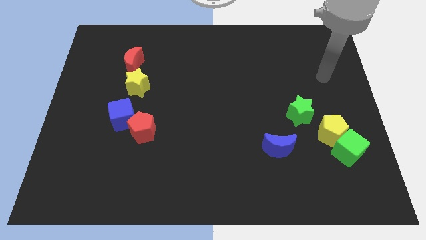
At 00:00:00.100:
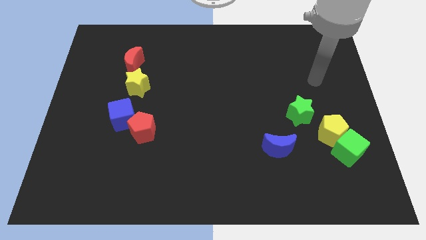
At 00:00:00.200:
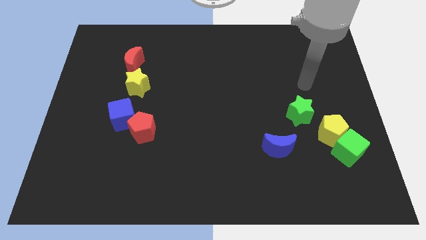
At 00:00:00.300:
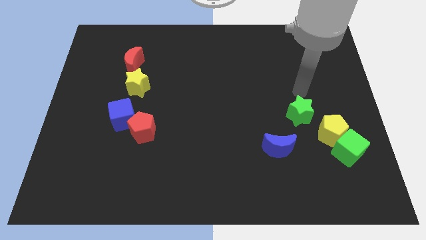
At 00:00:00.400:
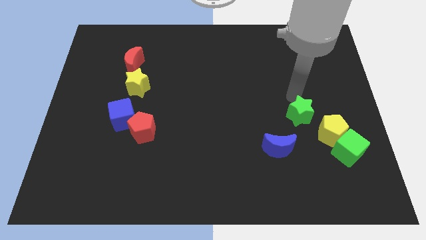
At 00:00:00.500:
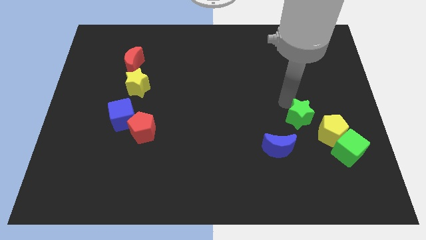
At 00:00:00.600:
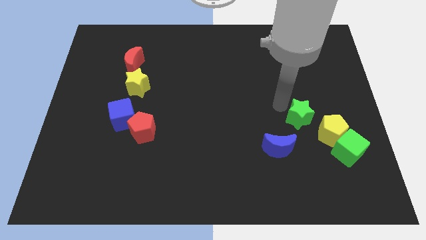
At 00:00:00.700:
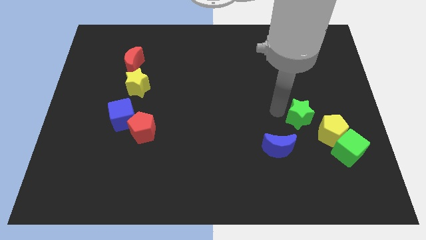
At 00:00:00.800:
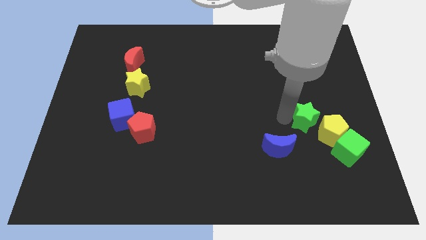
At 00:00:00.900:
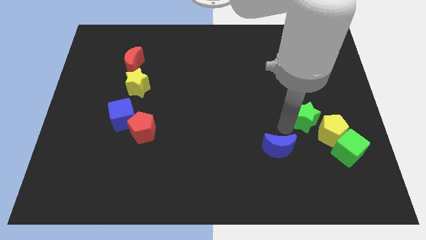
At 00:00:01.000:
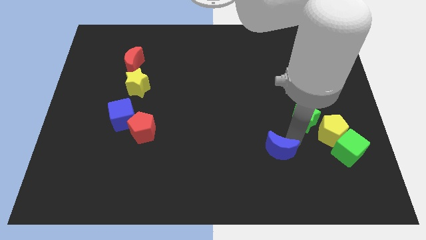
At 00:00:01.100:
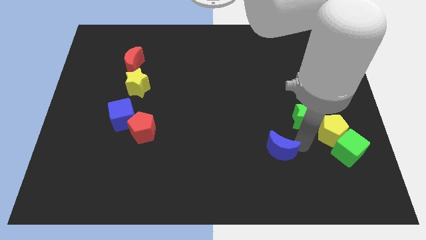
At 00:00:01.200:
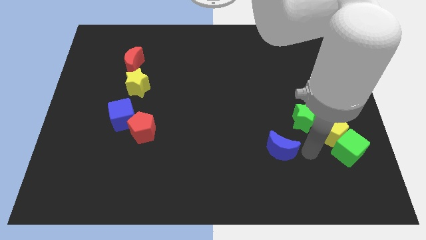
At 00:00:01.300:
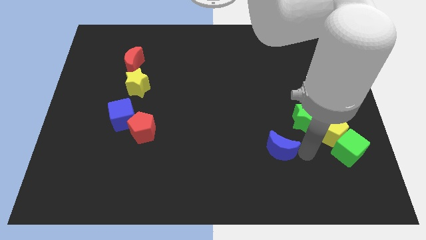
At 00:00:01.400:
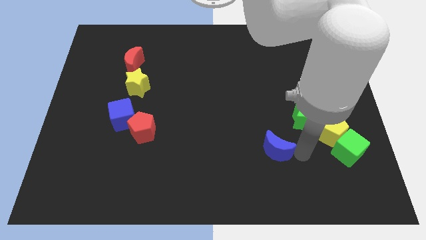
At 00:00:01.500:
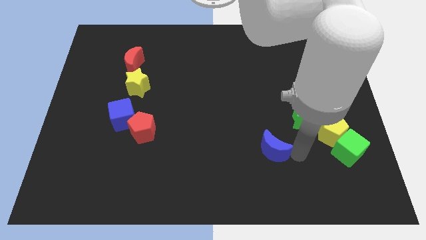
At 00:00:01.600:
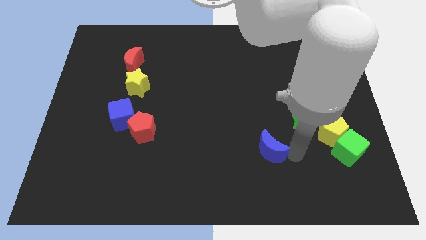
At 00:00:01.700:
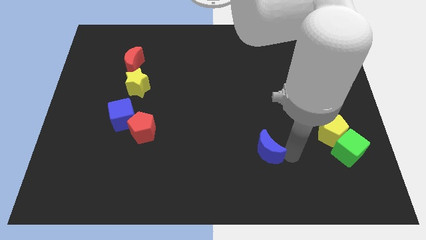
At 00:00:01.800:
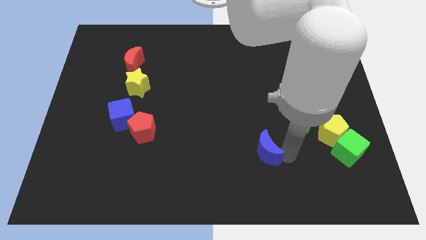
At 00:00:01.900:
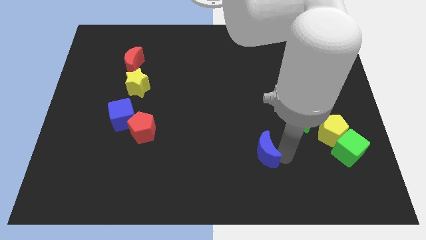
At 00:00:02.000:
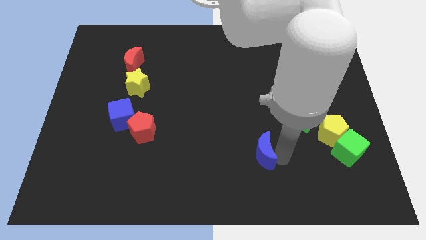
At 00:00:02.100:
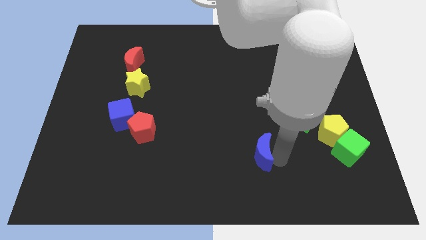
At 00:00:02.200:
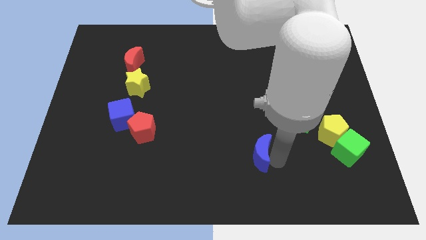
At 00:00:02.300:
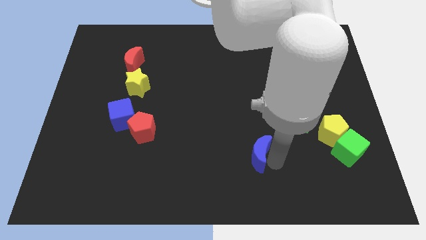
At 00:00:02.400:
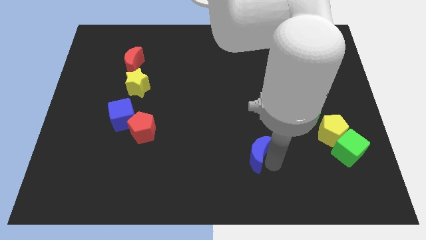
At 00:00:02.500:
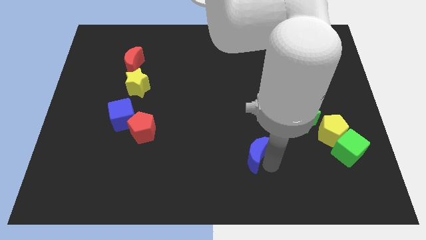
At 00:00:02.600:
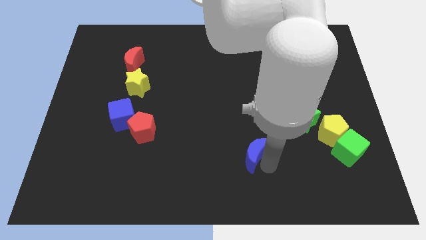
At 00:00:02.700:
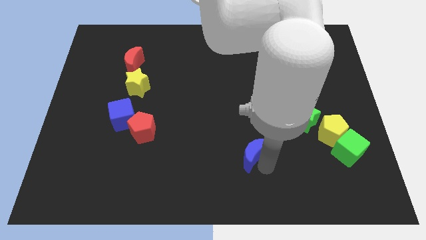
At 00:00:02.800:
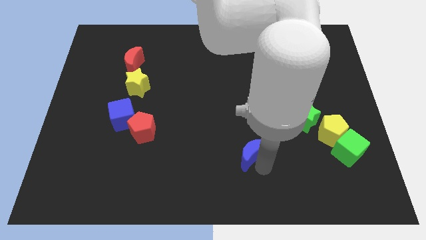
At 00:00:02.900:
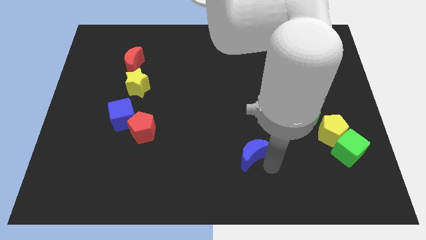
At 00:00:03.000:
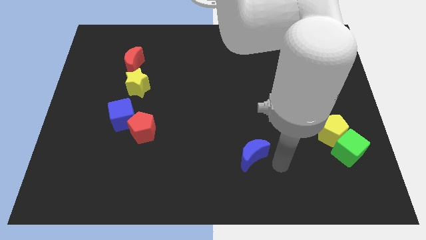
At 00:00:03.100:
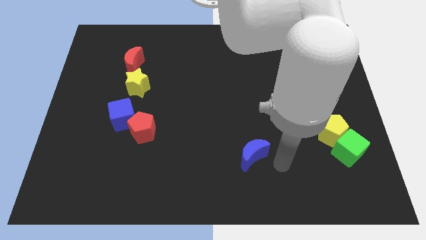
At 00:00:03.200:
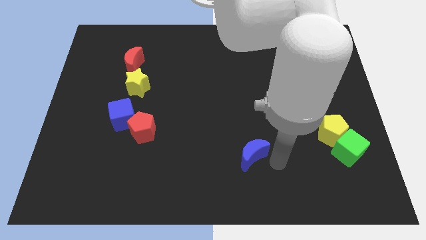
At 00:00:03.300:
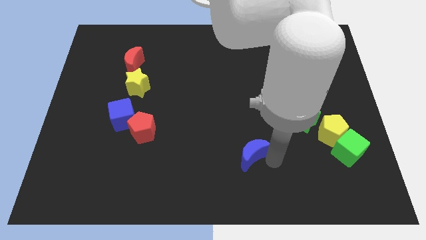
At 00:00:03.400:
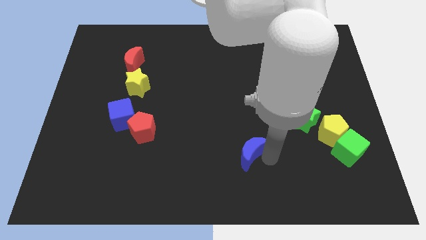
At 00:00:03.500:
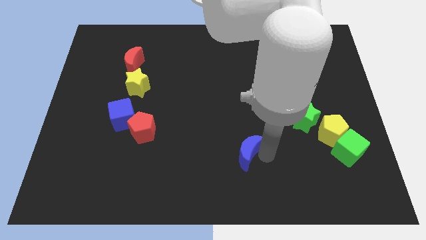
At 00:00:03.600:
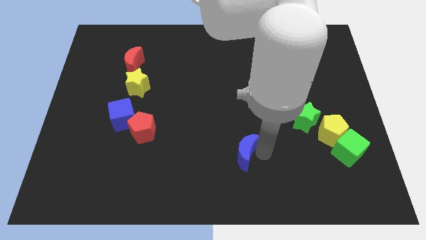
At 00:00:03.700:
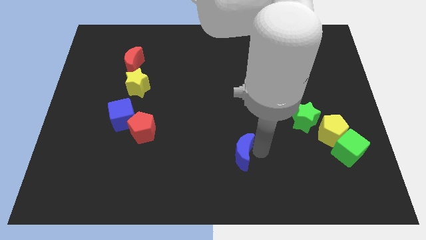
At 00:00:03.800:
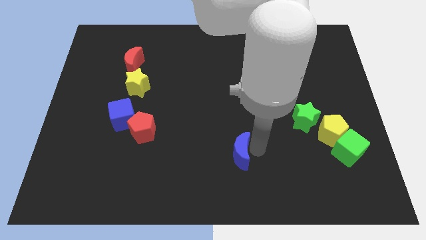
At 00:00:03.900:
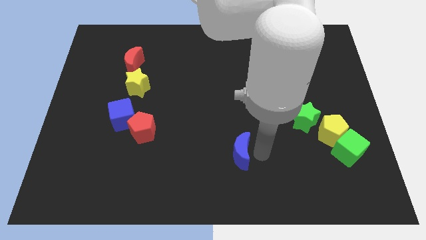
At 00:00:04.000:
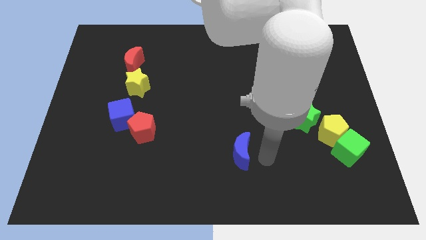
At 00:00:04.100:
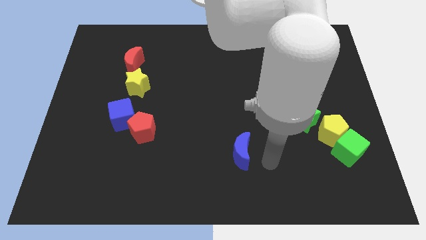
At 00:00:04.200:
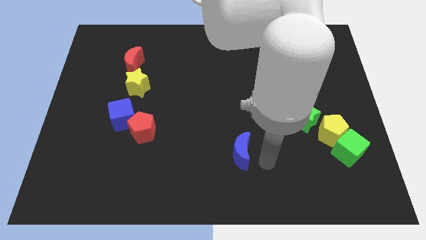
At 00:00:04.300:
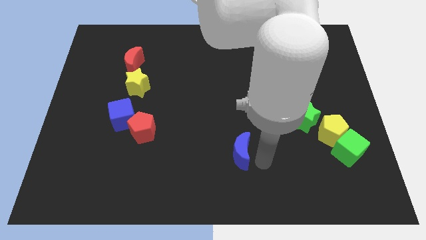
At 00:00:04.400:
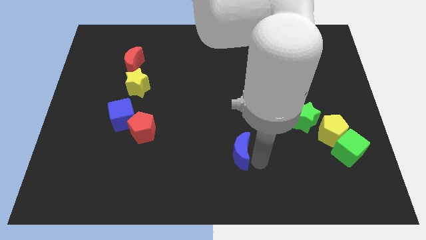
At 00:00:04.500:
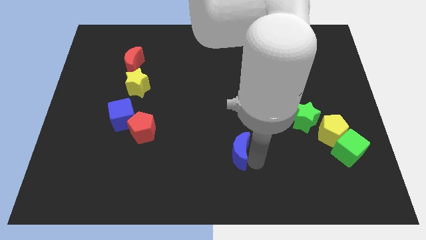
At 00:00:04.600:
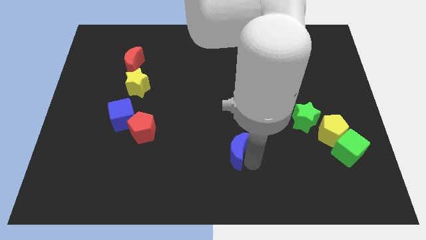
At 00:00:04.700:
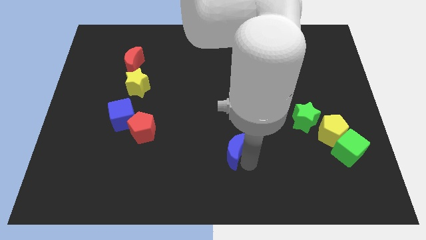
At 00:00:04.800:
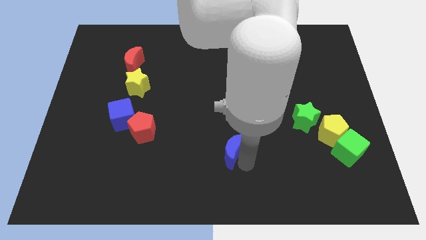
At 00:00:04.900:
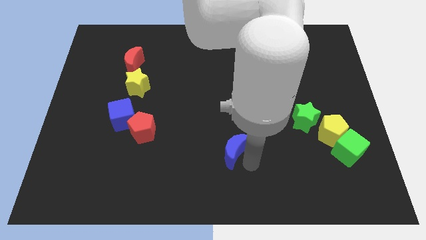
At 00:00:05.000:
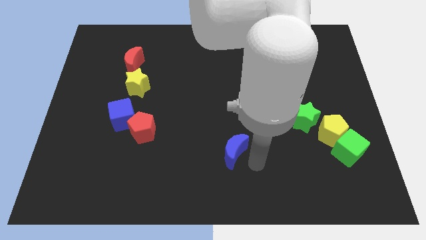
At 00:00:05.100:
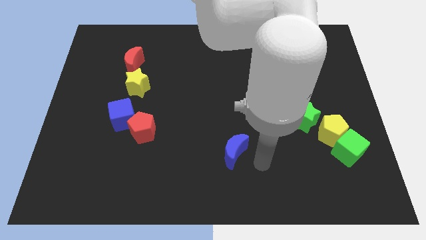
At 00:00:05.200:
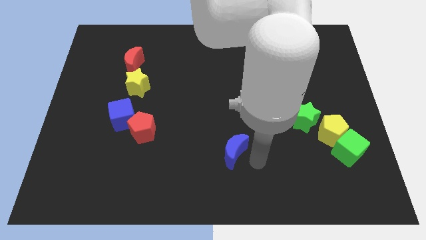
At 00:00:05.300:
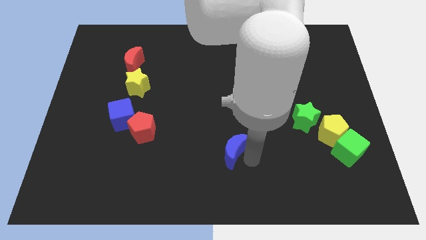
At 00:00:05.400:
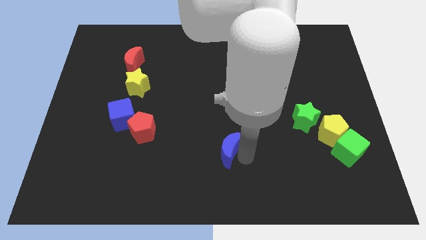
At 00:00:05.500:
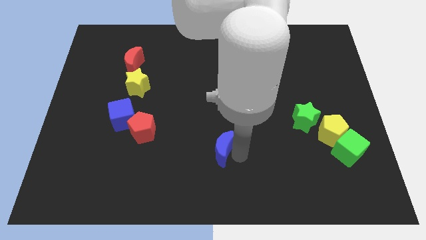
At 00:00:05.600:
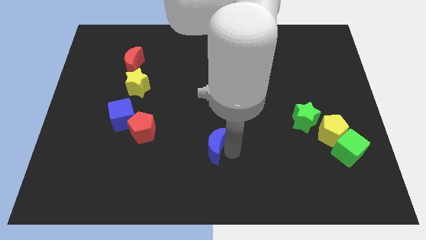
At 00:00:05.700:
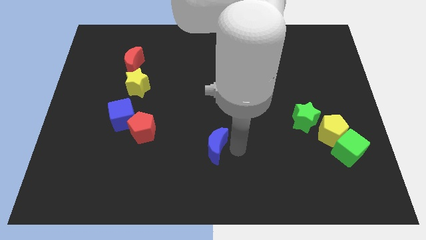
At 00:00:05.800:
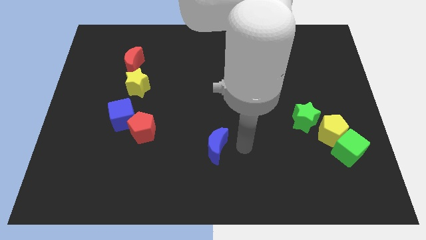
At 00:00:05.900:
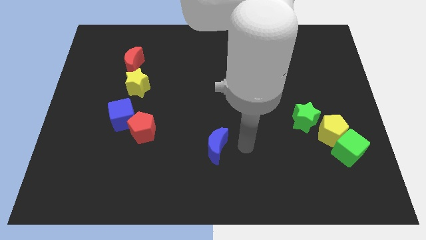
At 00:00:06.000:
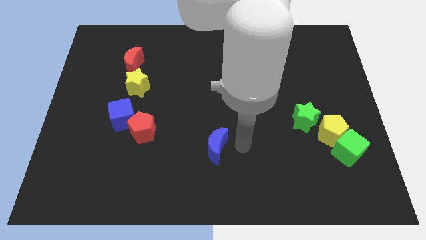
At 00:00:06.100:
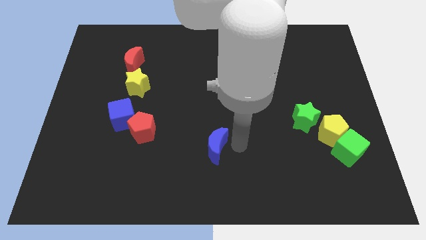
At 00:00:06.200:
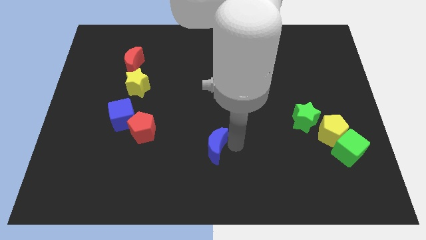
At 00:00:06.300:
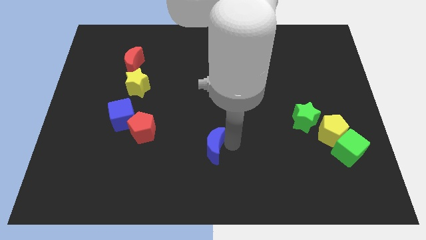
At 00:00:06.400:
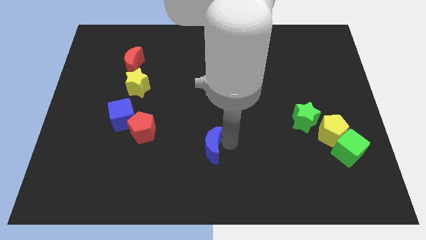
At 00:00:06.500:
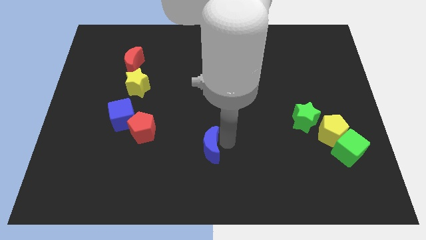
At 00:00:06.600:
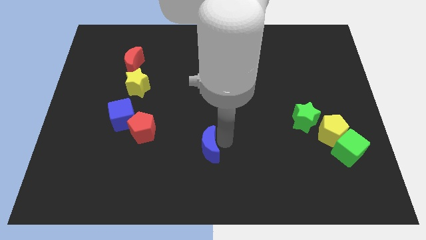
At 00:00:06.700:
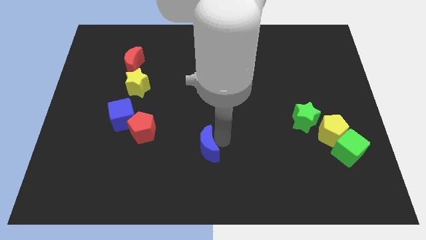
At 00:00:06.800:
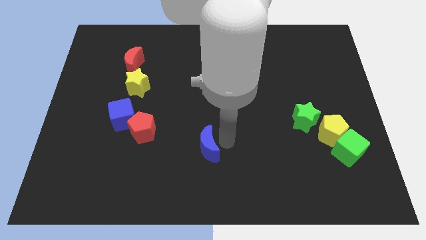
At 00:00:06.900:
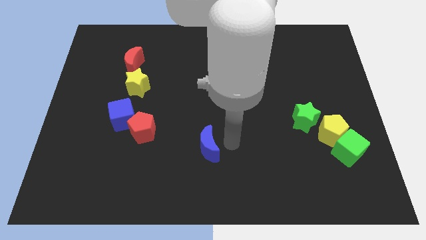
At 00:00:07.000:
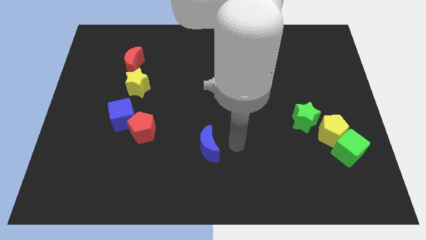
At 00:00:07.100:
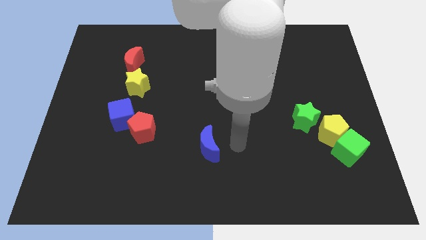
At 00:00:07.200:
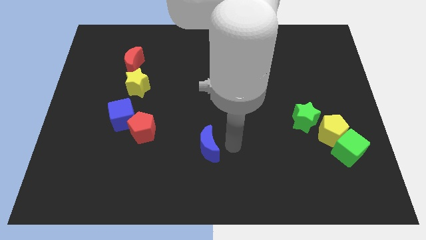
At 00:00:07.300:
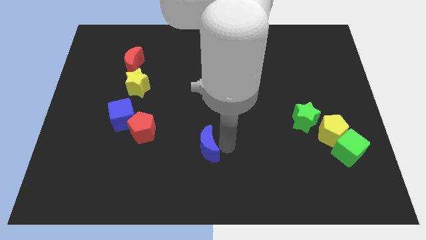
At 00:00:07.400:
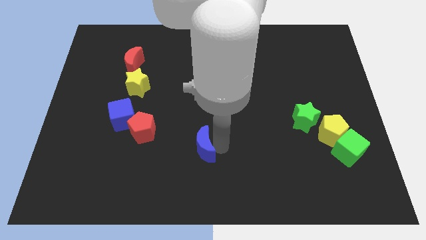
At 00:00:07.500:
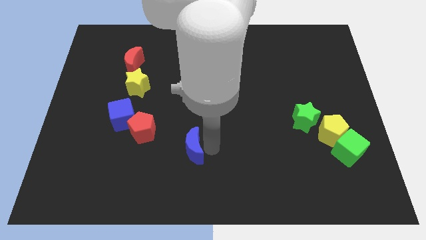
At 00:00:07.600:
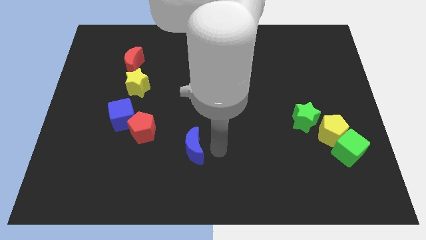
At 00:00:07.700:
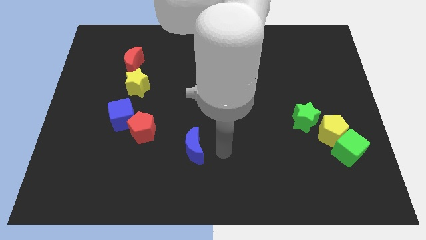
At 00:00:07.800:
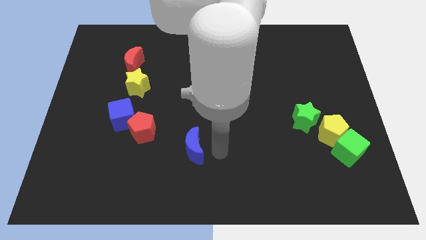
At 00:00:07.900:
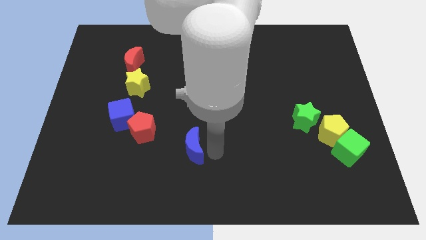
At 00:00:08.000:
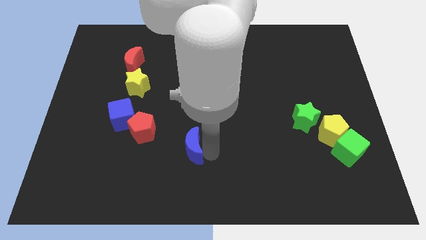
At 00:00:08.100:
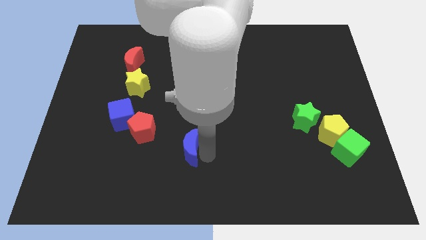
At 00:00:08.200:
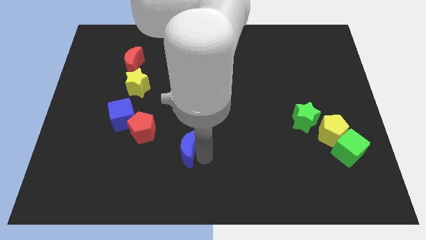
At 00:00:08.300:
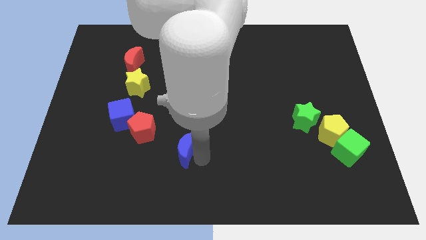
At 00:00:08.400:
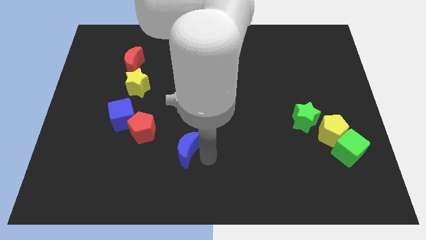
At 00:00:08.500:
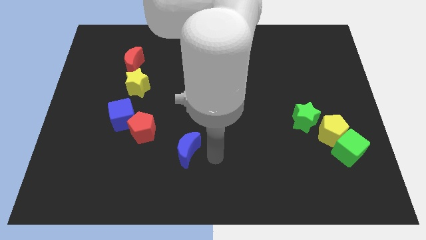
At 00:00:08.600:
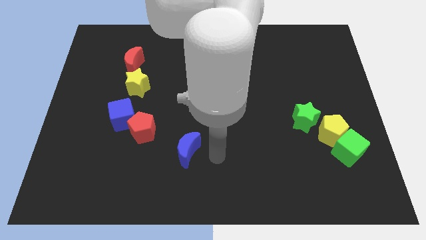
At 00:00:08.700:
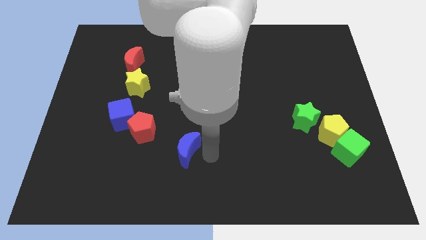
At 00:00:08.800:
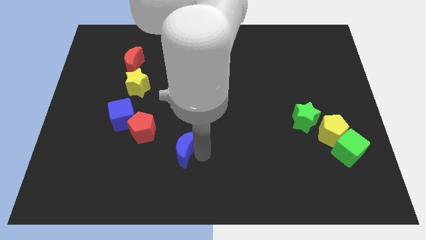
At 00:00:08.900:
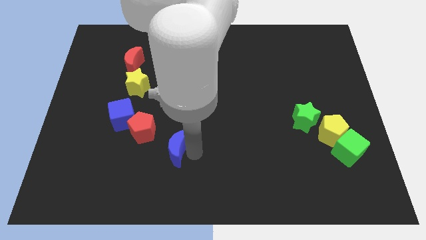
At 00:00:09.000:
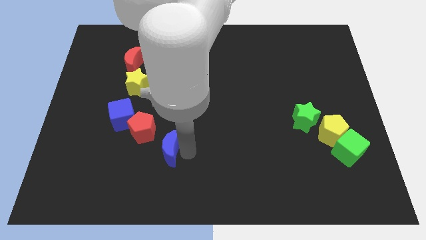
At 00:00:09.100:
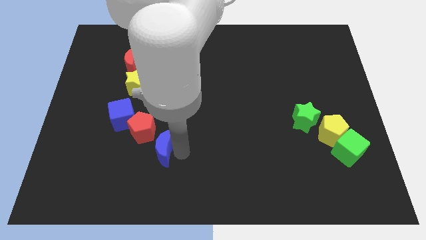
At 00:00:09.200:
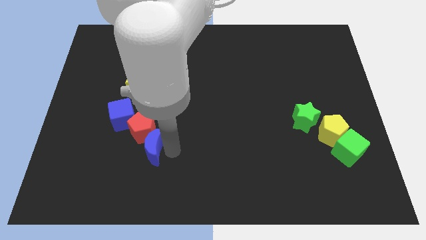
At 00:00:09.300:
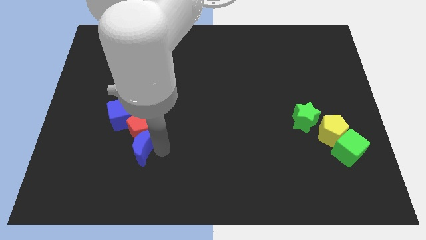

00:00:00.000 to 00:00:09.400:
move the blue moon diagonally down and to the left of the red pentagon
